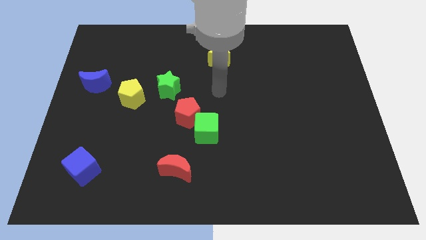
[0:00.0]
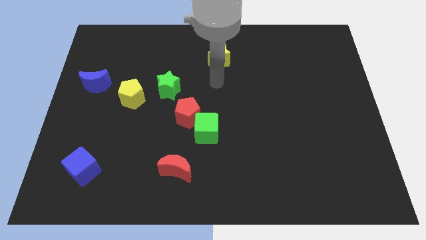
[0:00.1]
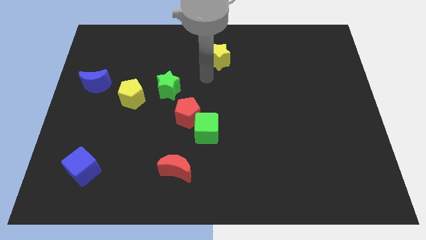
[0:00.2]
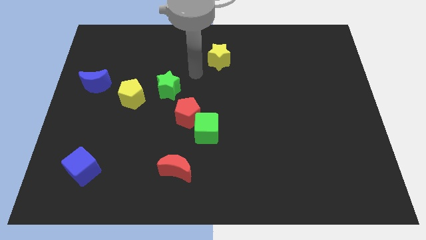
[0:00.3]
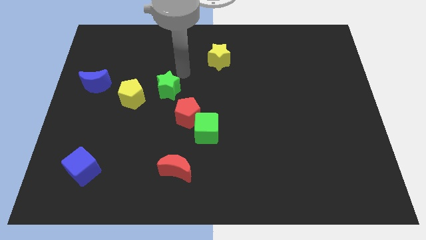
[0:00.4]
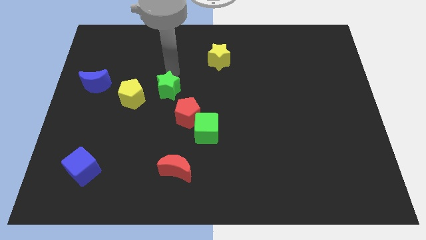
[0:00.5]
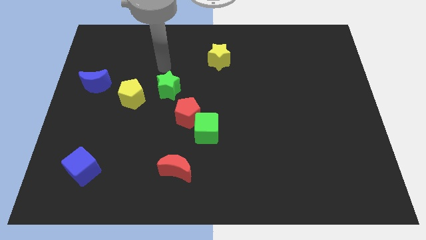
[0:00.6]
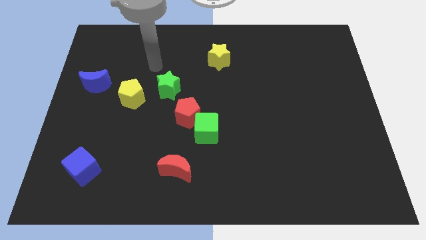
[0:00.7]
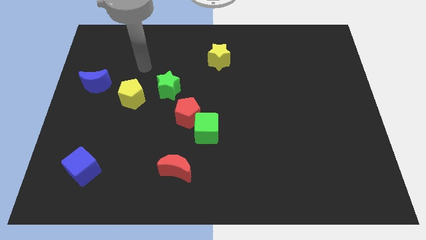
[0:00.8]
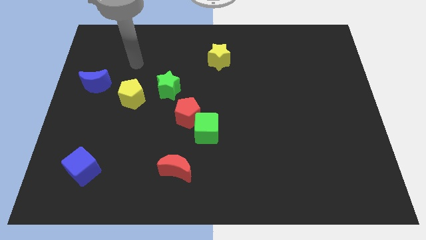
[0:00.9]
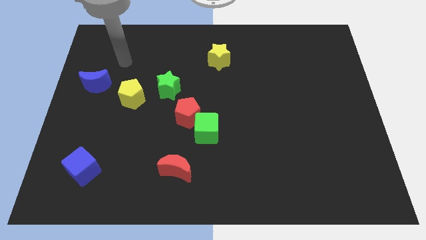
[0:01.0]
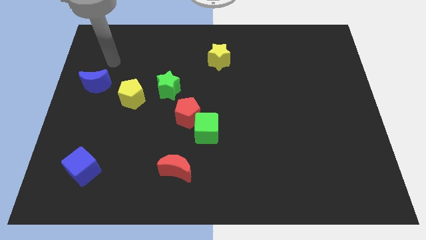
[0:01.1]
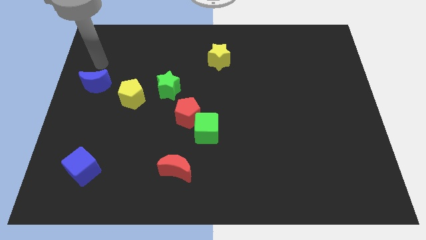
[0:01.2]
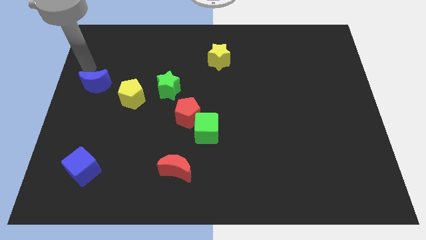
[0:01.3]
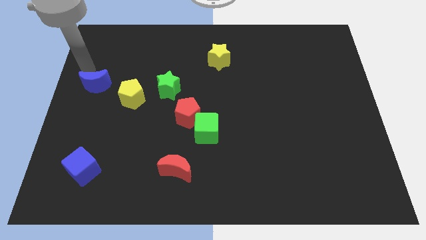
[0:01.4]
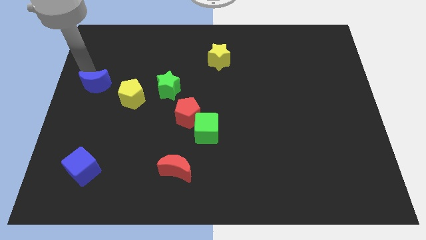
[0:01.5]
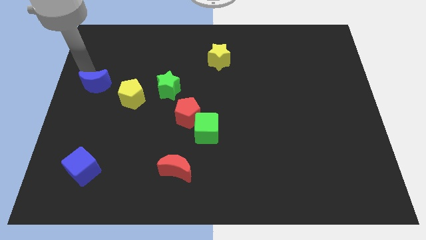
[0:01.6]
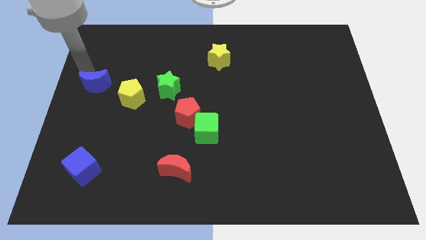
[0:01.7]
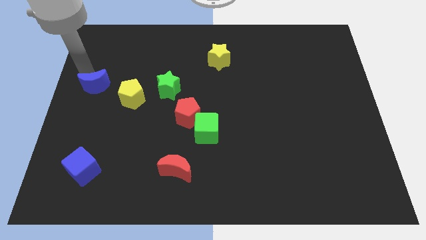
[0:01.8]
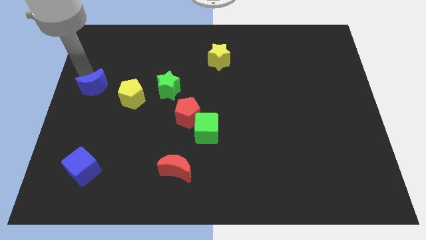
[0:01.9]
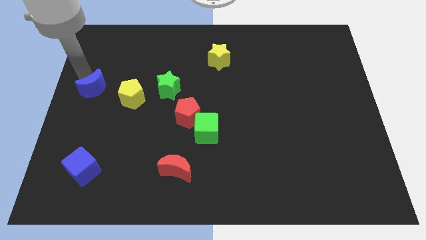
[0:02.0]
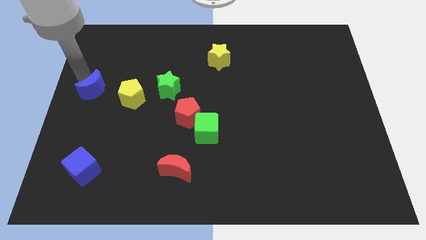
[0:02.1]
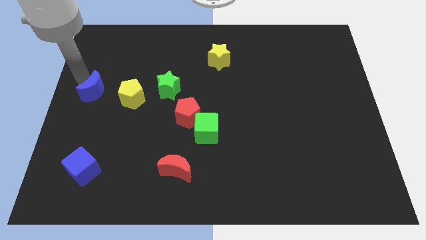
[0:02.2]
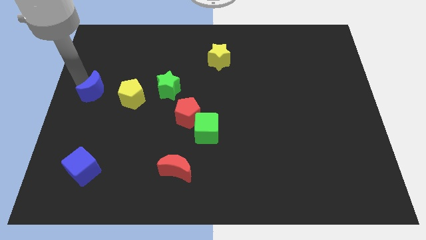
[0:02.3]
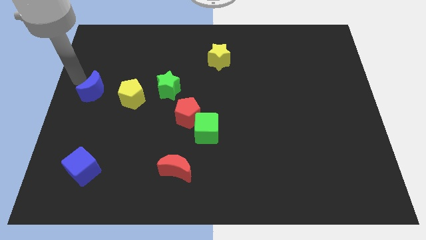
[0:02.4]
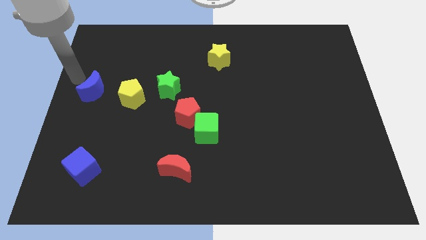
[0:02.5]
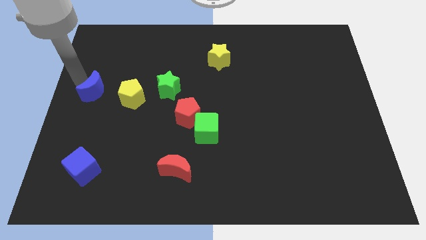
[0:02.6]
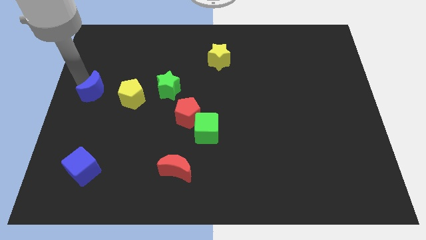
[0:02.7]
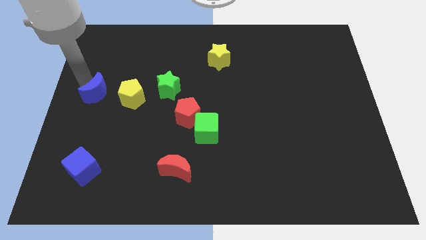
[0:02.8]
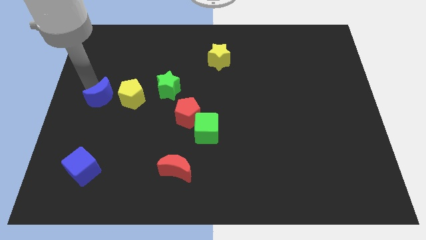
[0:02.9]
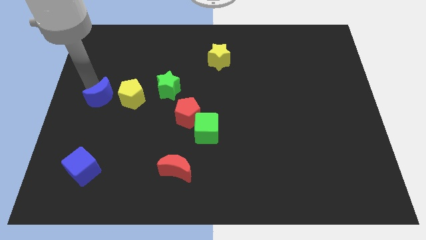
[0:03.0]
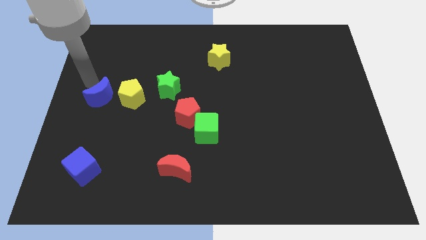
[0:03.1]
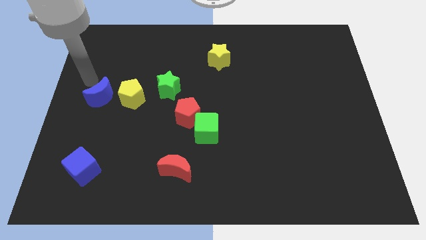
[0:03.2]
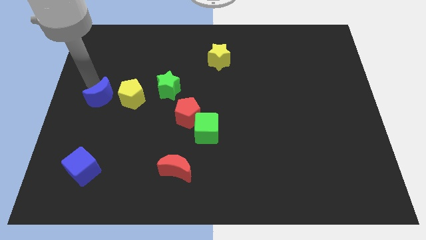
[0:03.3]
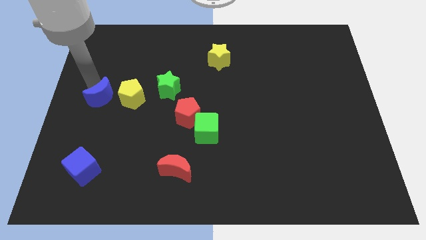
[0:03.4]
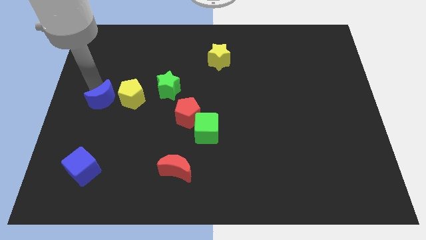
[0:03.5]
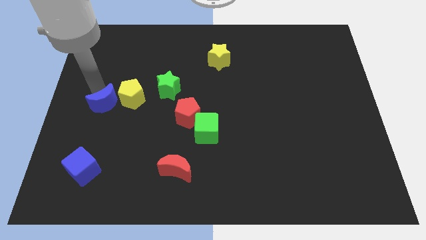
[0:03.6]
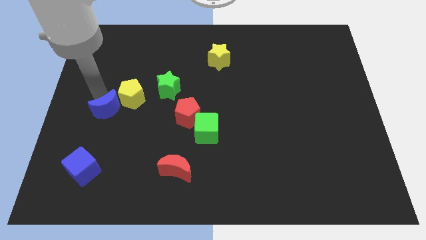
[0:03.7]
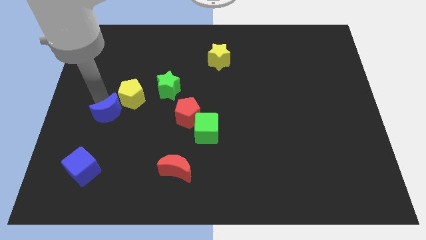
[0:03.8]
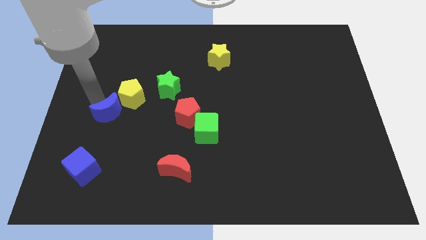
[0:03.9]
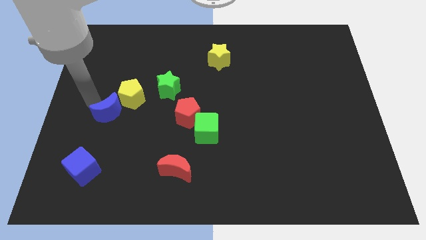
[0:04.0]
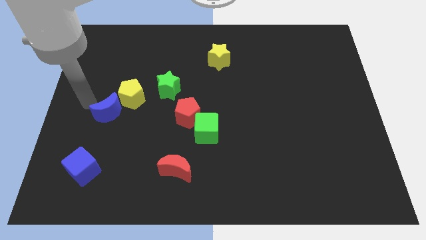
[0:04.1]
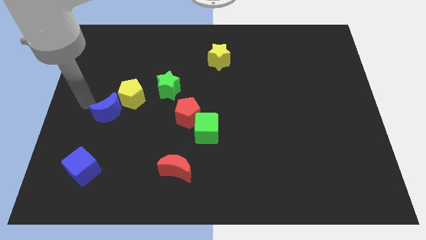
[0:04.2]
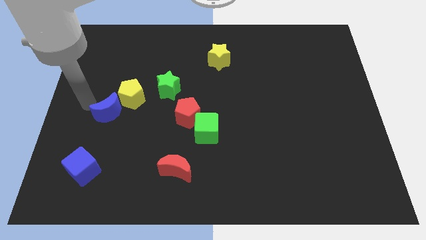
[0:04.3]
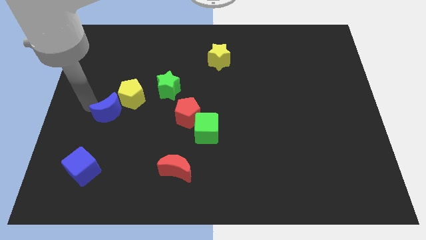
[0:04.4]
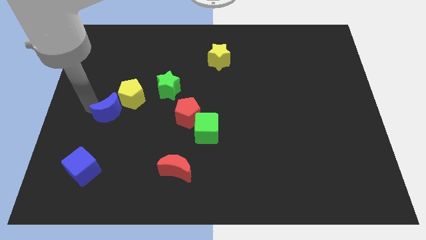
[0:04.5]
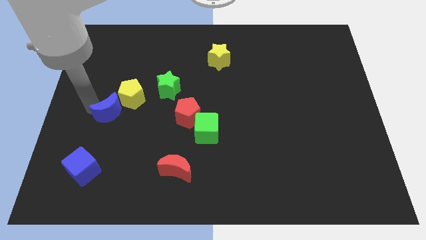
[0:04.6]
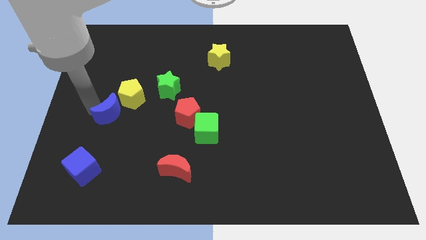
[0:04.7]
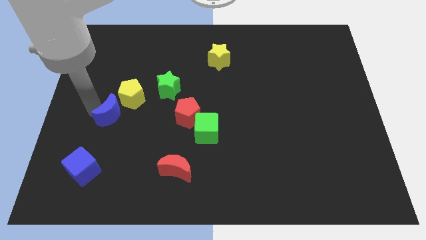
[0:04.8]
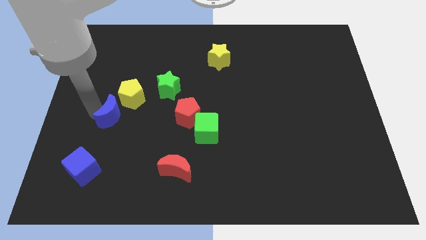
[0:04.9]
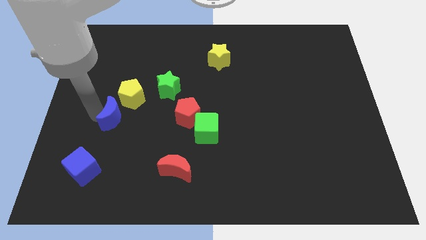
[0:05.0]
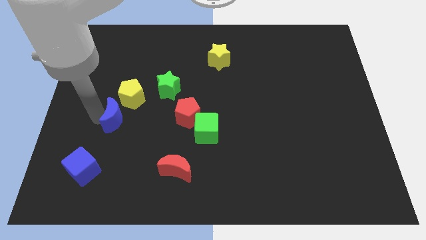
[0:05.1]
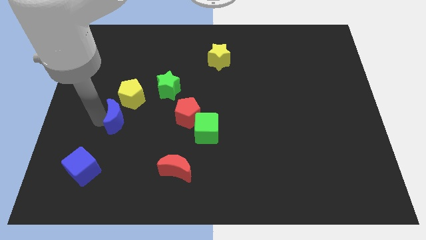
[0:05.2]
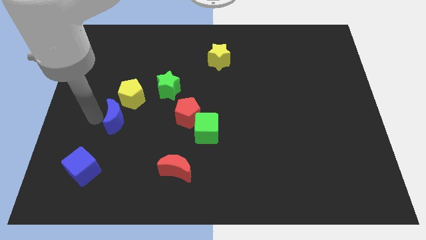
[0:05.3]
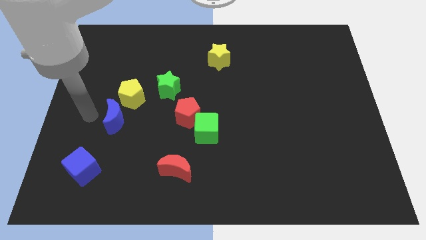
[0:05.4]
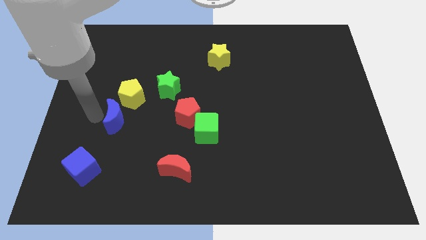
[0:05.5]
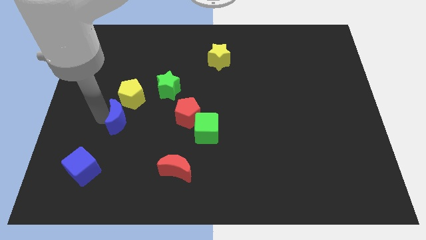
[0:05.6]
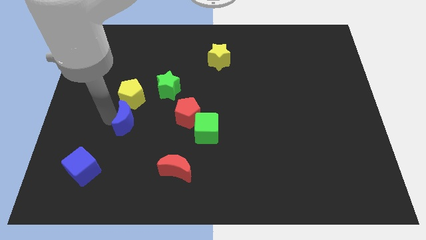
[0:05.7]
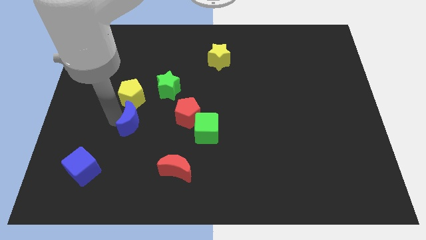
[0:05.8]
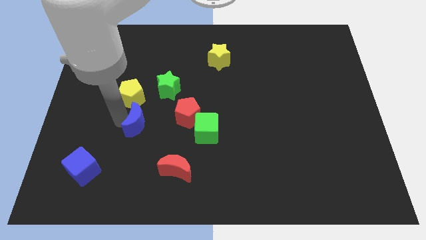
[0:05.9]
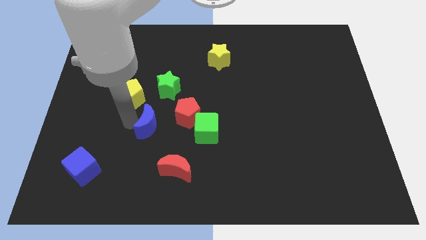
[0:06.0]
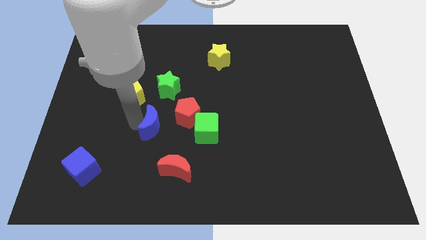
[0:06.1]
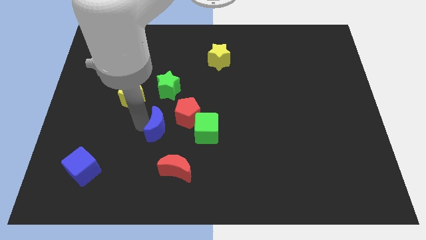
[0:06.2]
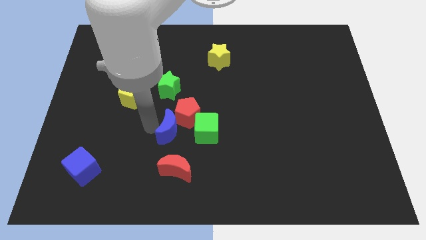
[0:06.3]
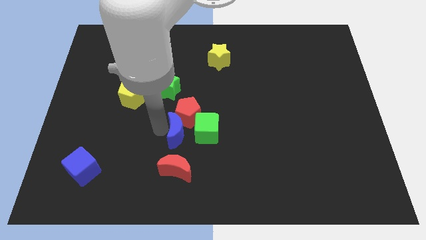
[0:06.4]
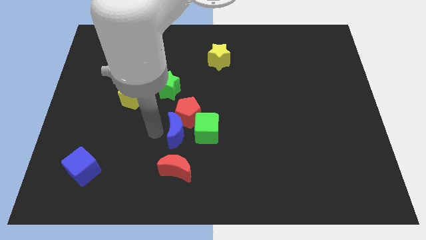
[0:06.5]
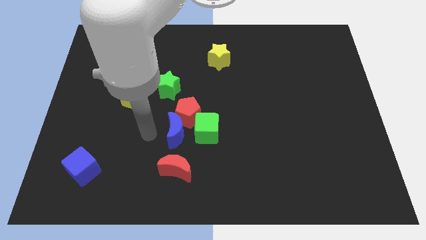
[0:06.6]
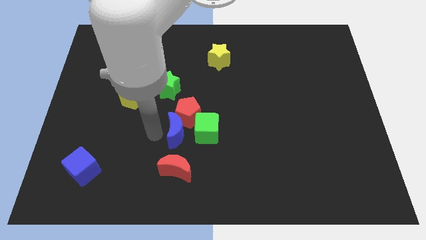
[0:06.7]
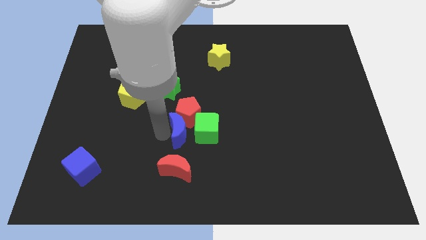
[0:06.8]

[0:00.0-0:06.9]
slide the blue moon to the green cube

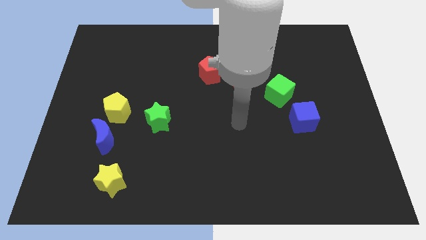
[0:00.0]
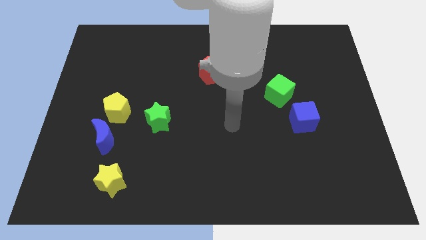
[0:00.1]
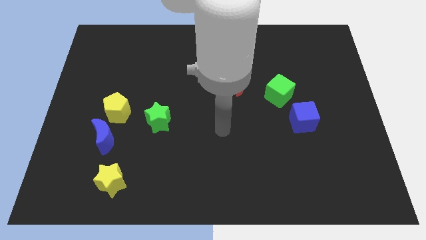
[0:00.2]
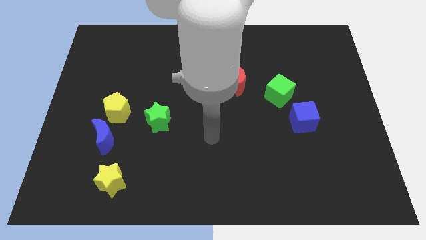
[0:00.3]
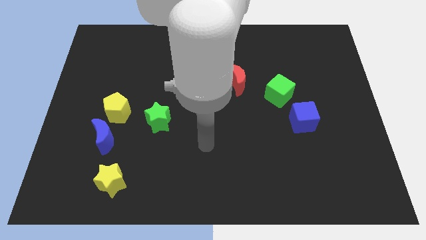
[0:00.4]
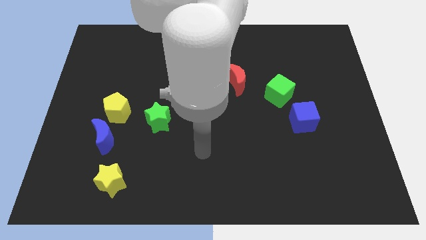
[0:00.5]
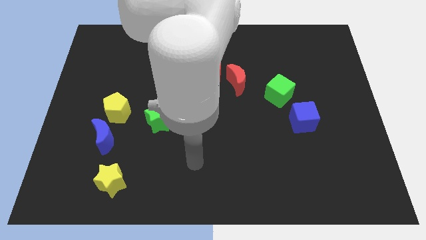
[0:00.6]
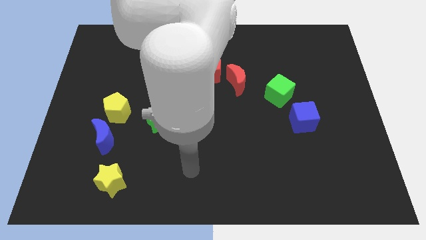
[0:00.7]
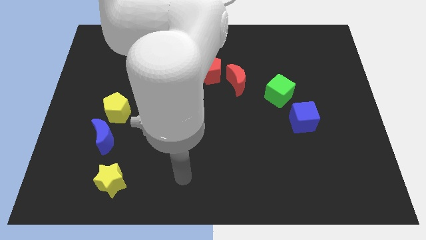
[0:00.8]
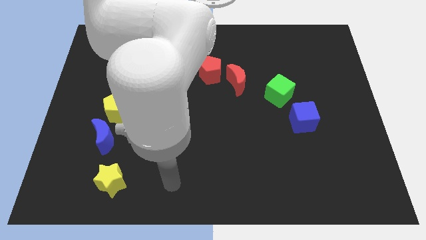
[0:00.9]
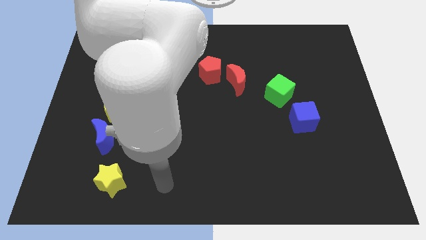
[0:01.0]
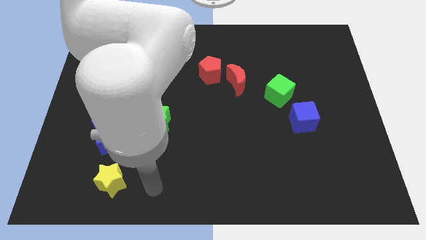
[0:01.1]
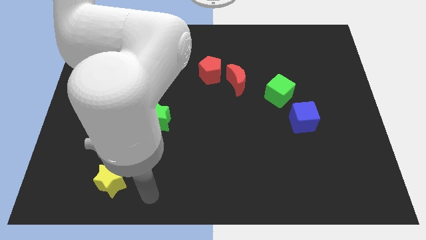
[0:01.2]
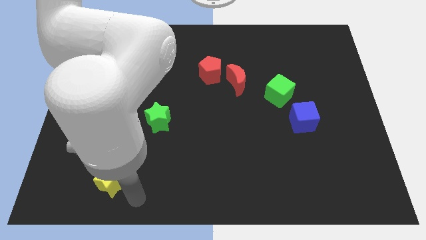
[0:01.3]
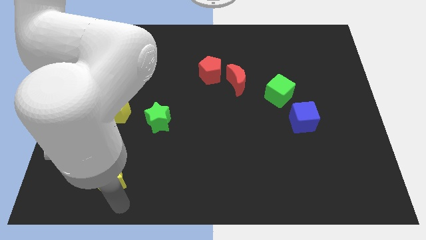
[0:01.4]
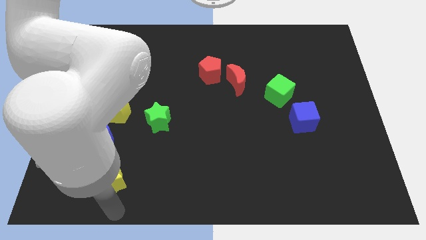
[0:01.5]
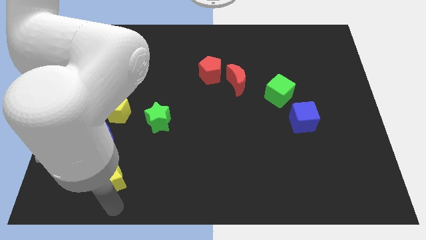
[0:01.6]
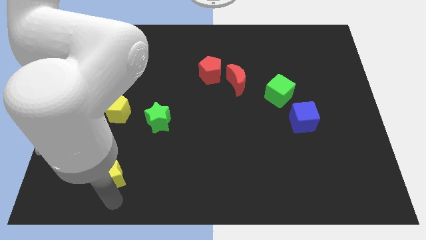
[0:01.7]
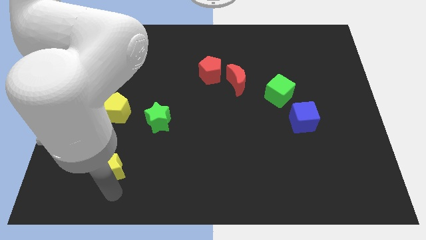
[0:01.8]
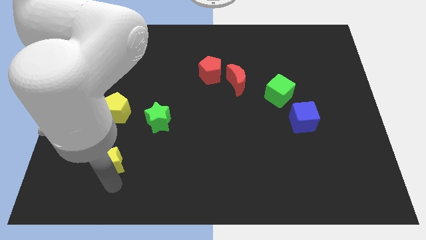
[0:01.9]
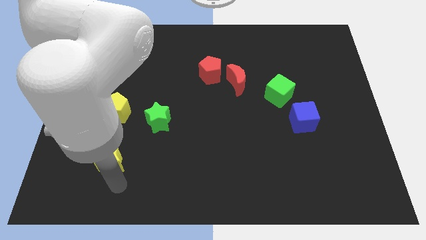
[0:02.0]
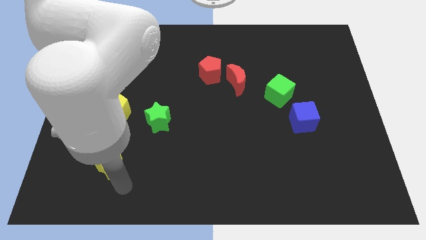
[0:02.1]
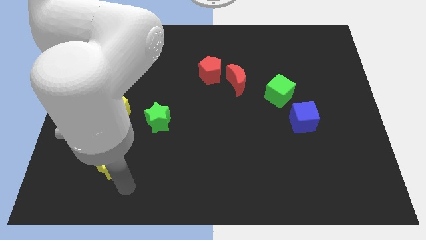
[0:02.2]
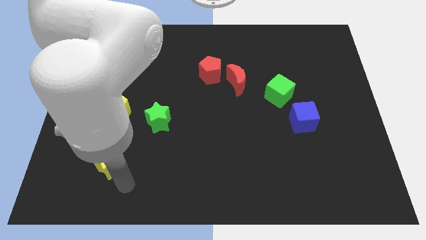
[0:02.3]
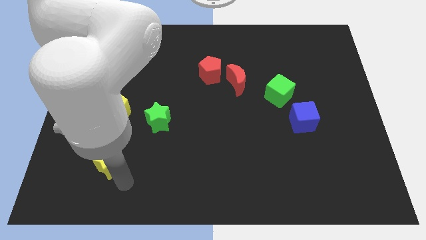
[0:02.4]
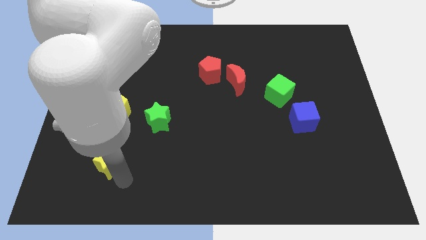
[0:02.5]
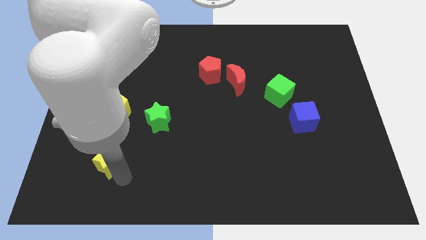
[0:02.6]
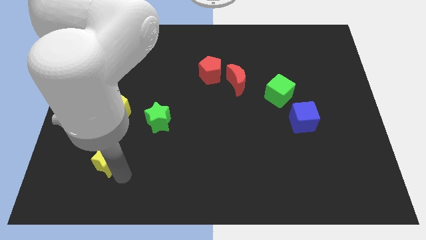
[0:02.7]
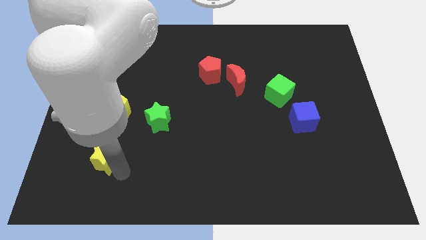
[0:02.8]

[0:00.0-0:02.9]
slide the yellow star towards the blue moon
